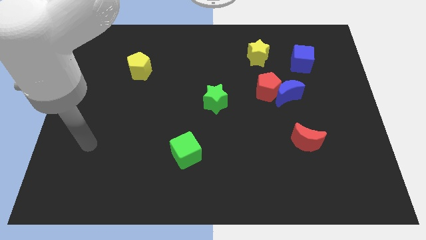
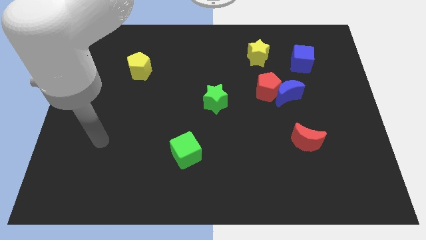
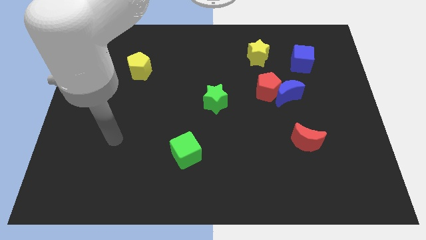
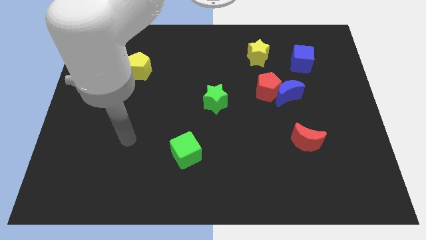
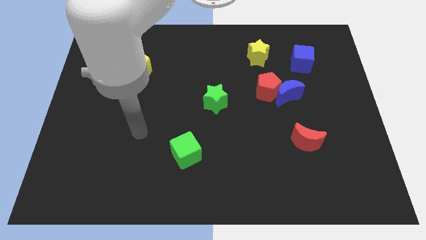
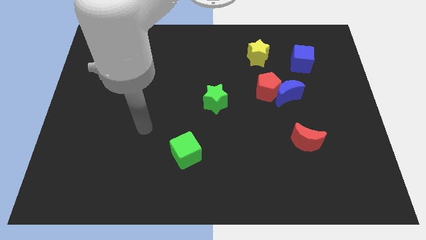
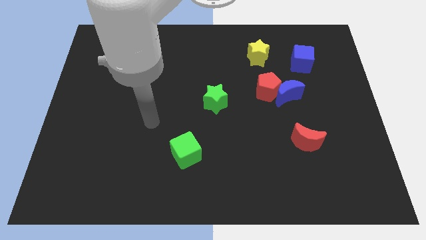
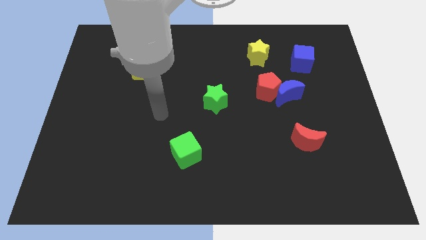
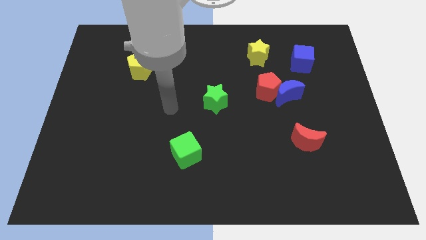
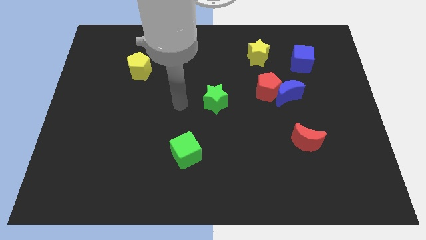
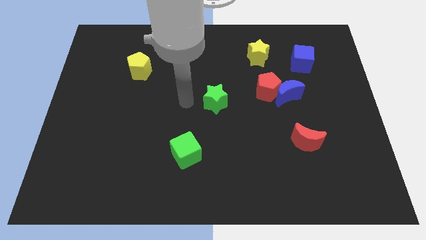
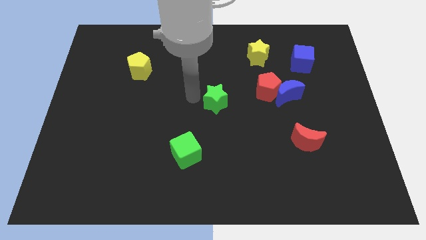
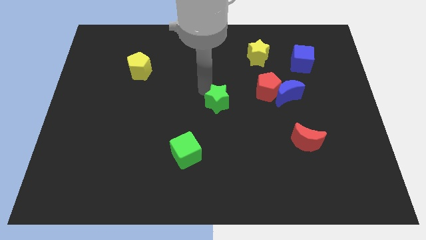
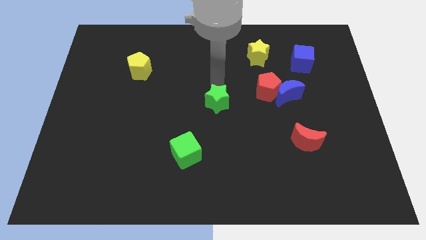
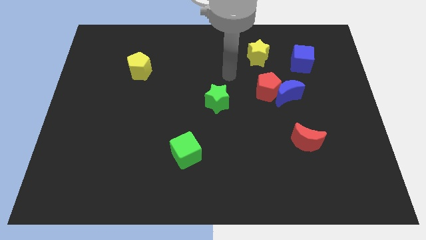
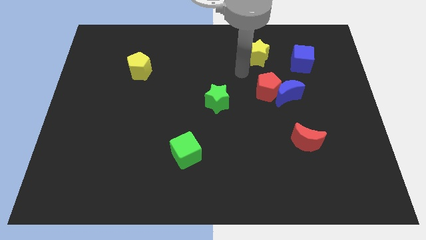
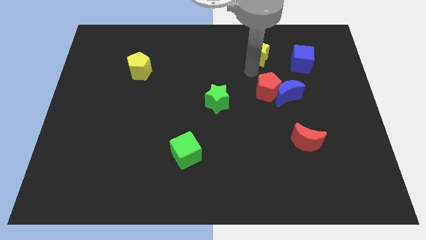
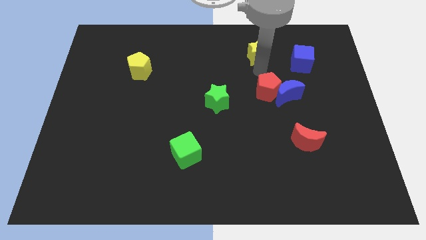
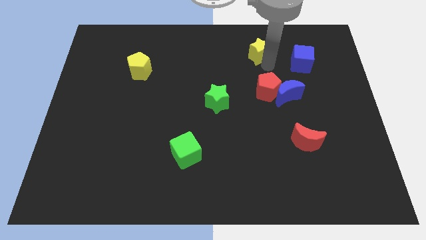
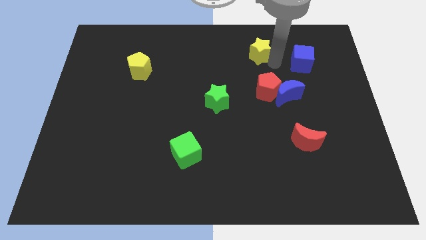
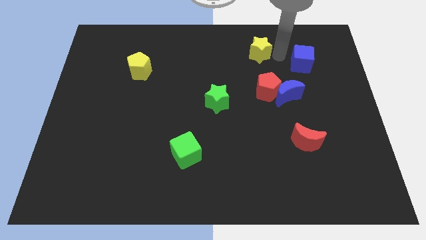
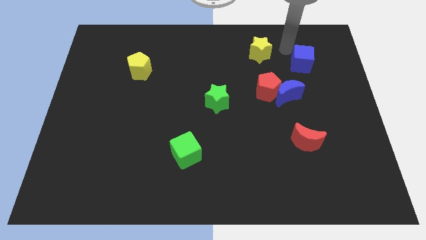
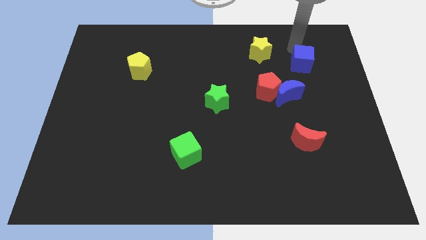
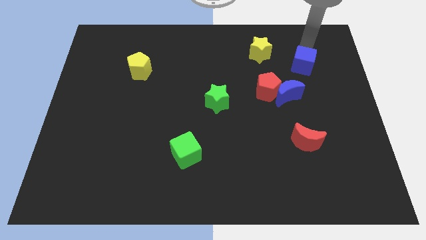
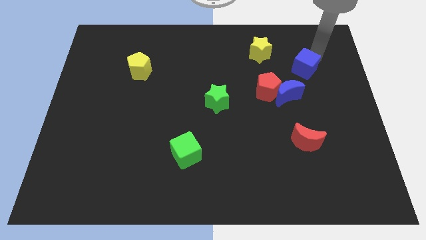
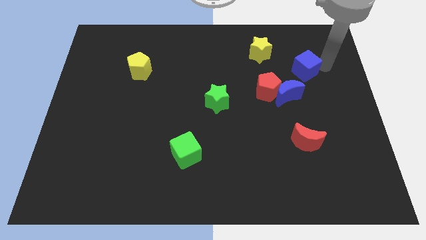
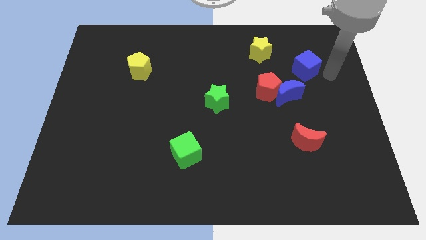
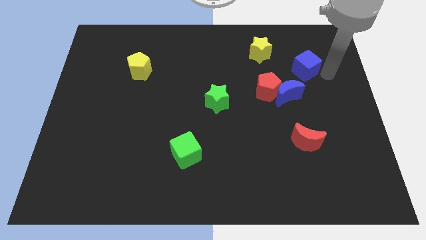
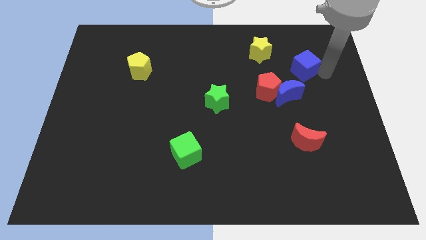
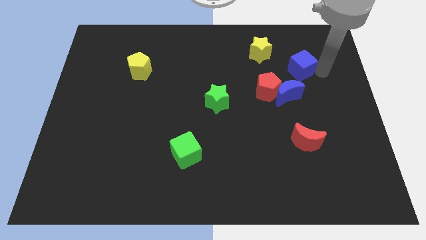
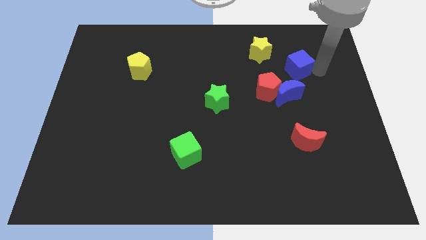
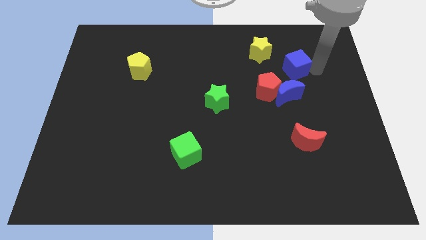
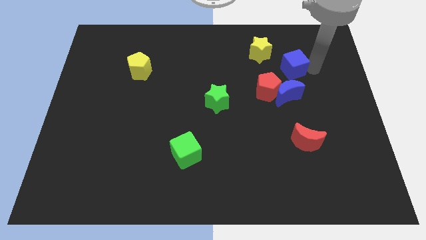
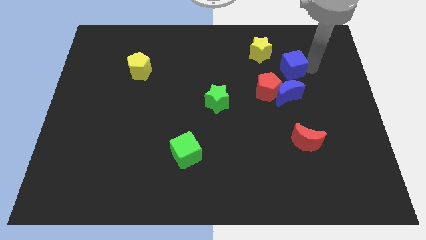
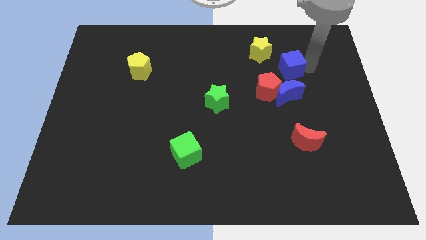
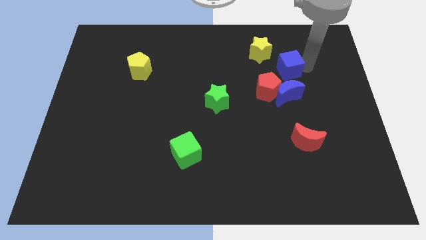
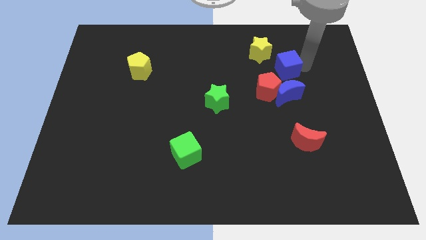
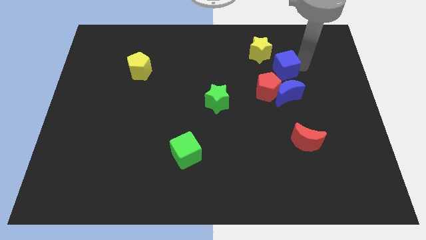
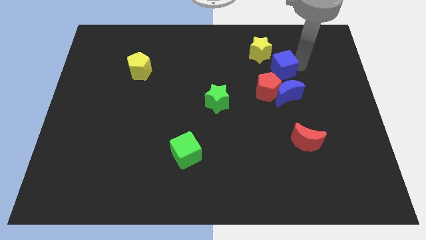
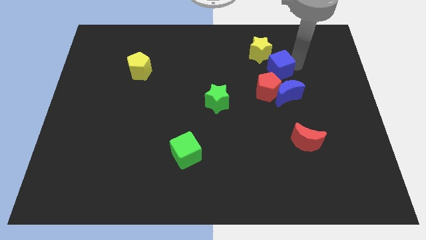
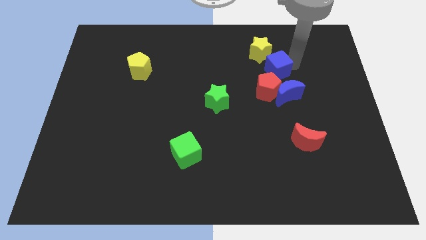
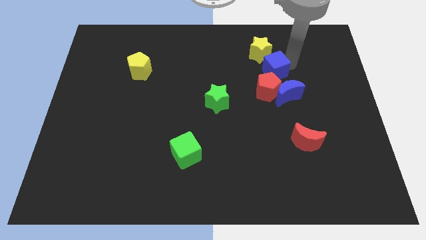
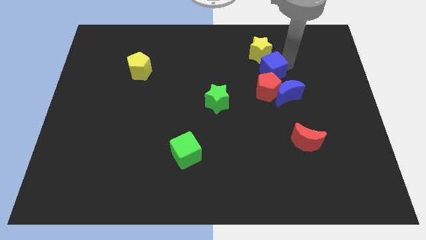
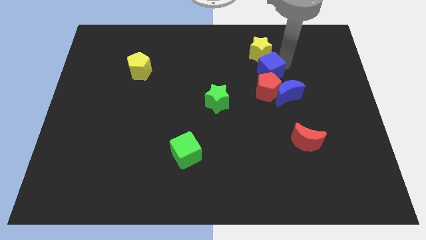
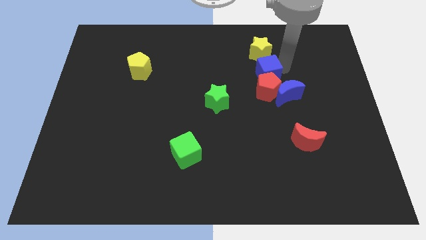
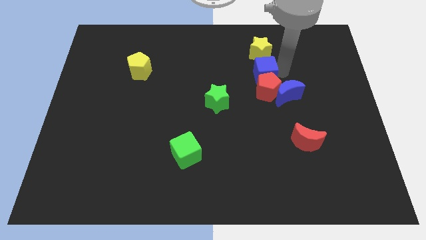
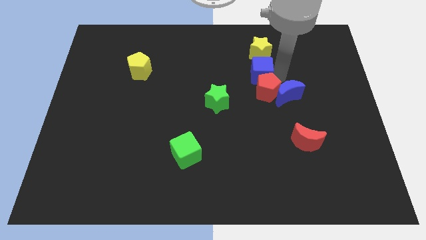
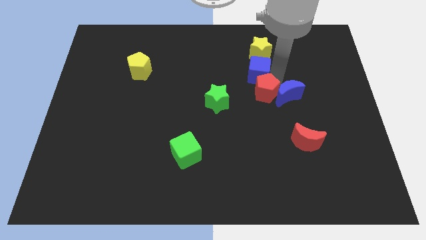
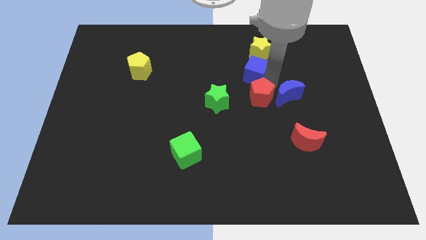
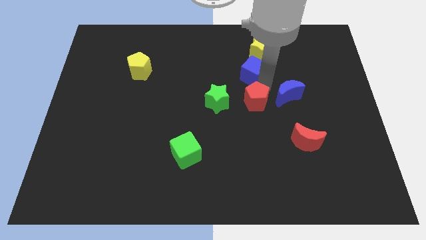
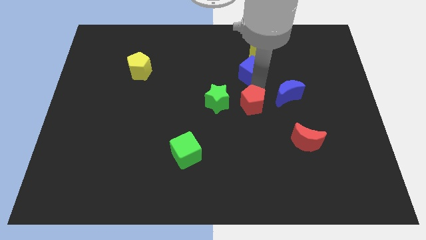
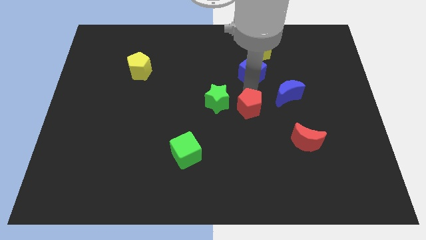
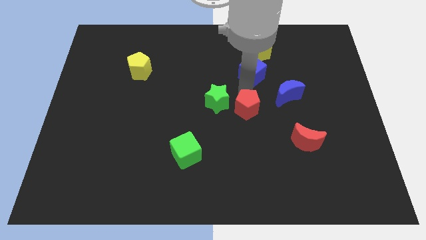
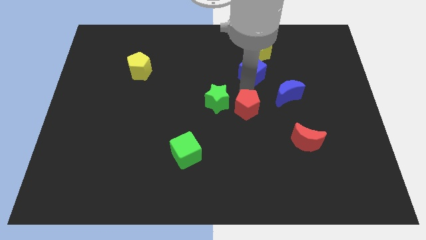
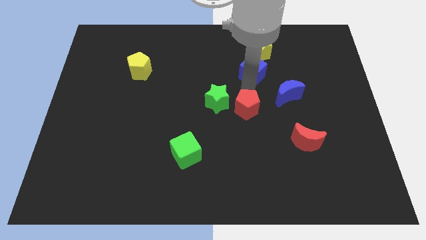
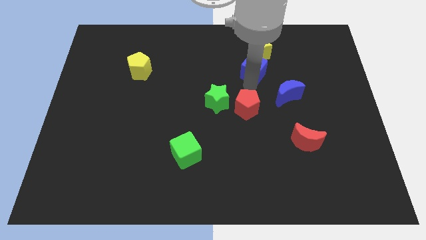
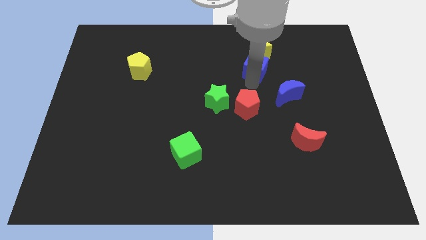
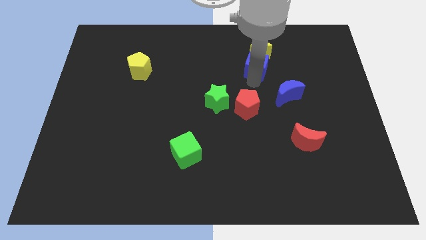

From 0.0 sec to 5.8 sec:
push the blue cube close to the yellow star
